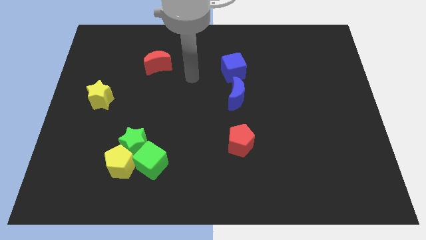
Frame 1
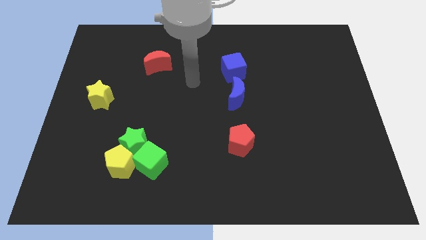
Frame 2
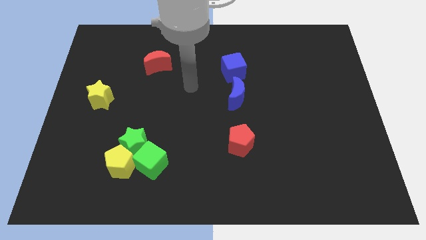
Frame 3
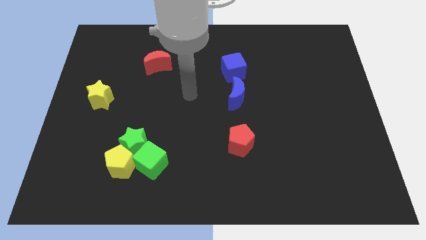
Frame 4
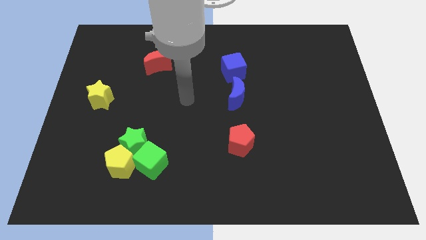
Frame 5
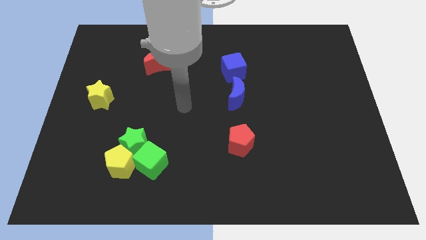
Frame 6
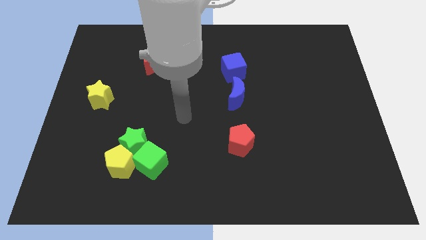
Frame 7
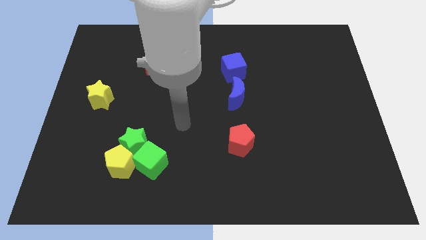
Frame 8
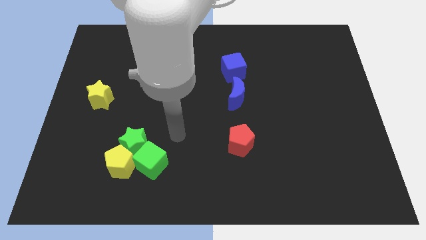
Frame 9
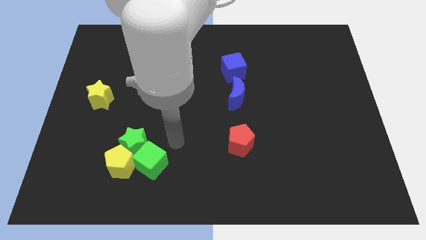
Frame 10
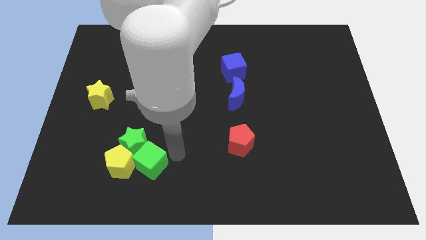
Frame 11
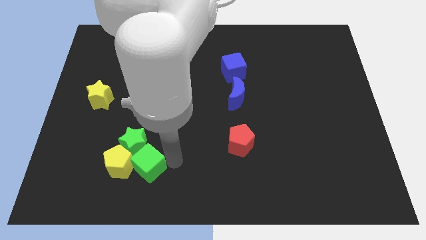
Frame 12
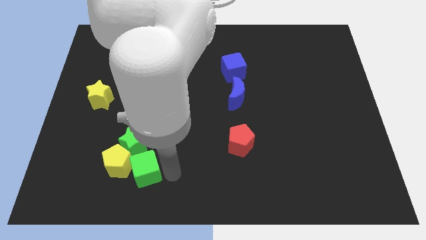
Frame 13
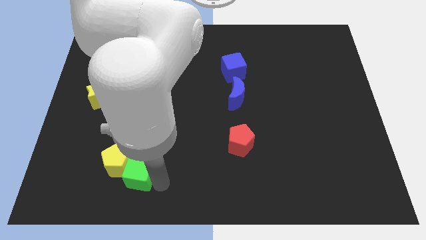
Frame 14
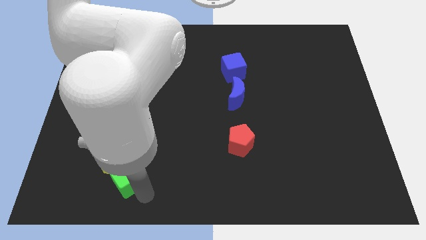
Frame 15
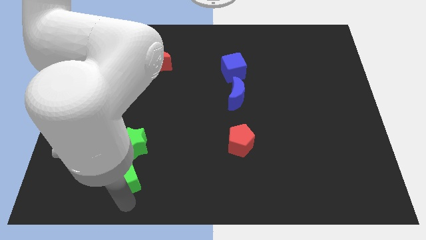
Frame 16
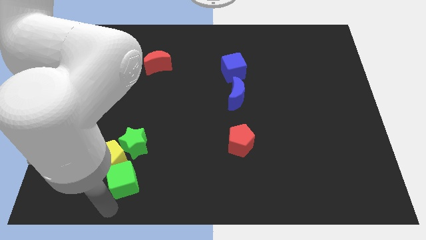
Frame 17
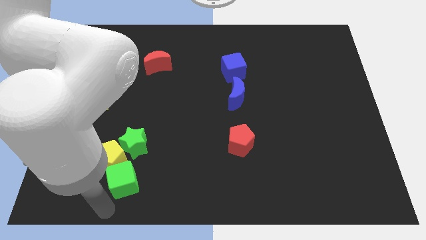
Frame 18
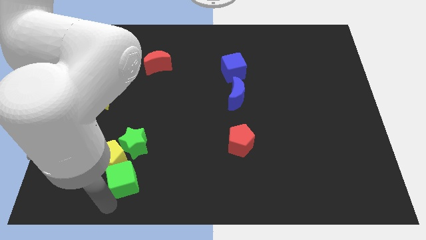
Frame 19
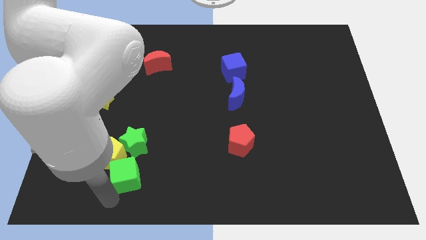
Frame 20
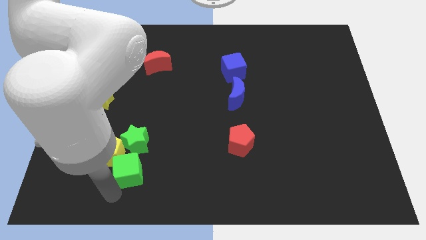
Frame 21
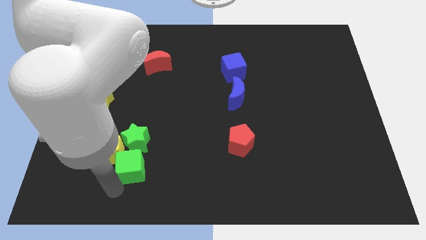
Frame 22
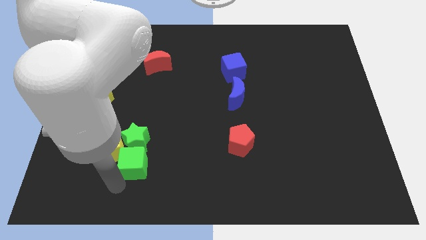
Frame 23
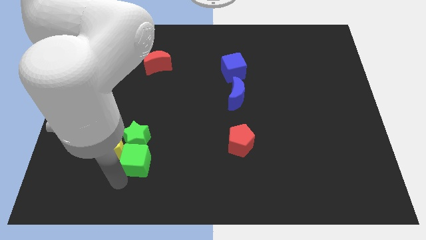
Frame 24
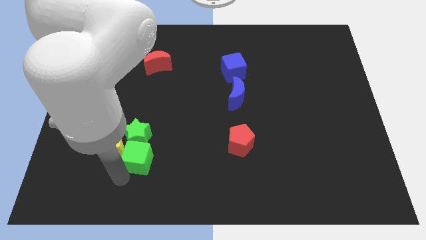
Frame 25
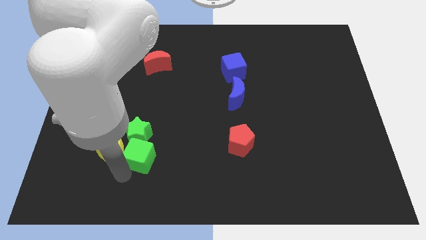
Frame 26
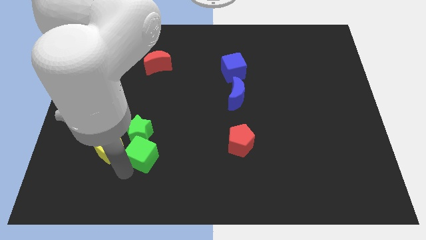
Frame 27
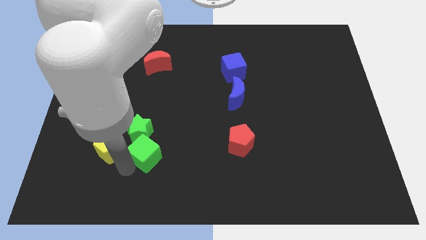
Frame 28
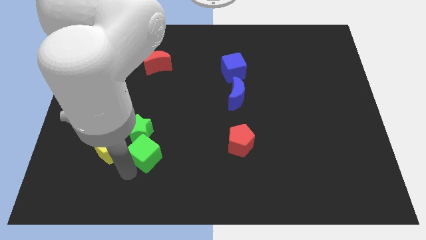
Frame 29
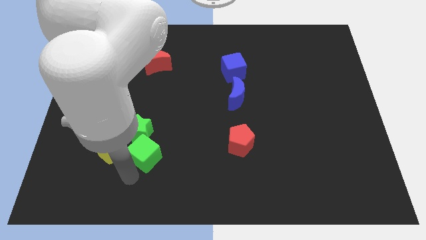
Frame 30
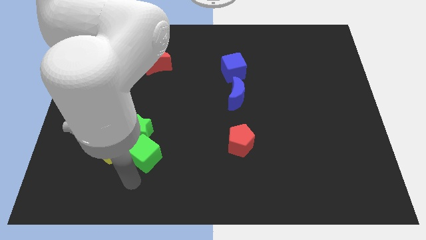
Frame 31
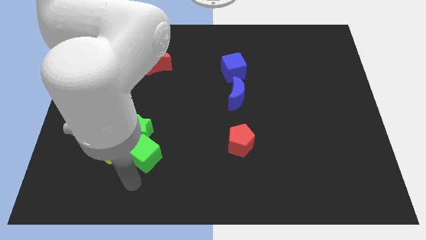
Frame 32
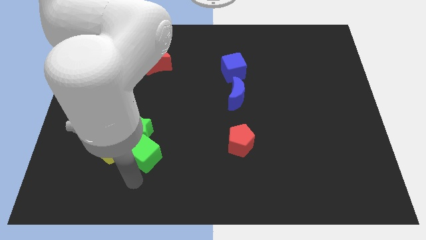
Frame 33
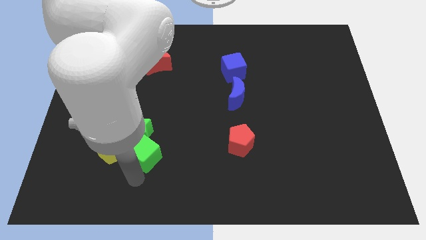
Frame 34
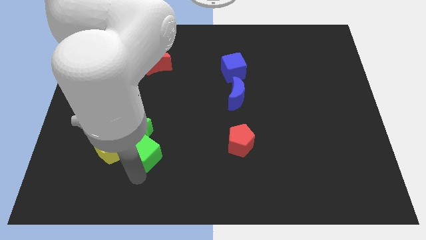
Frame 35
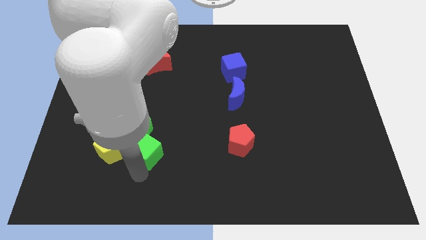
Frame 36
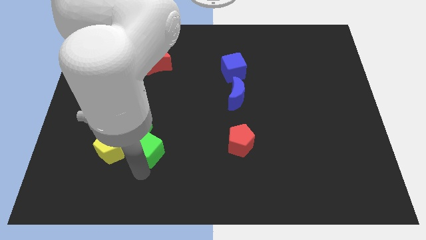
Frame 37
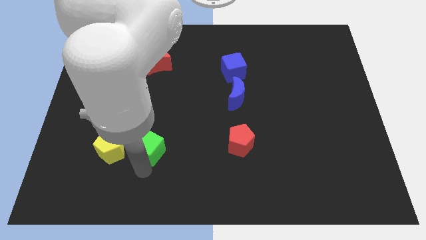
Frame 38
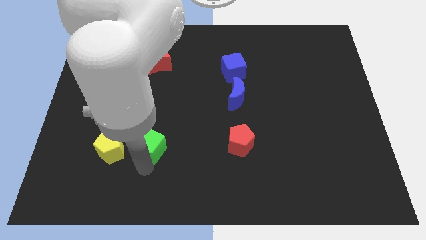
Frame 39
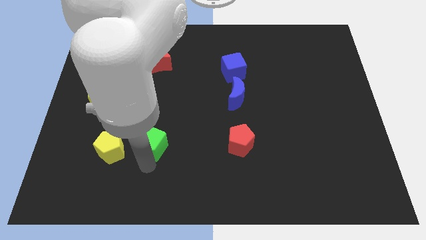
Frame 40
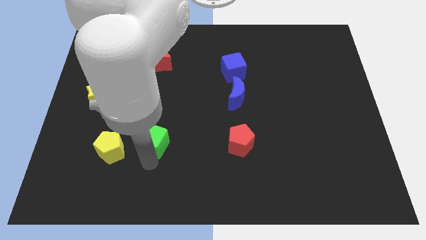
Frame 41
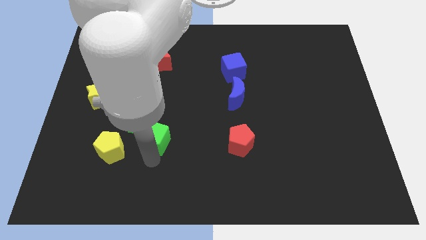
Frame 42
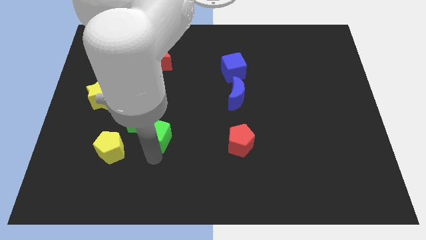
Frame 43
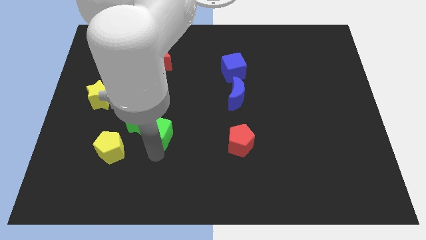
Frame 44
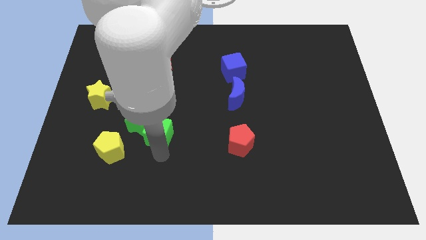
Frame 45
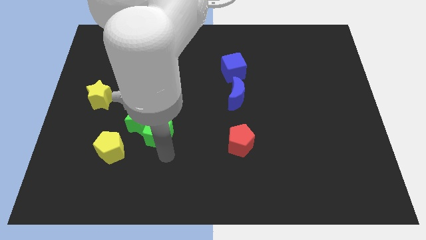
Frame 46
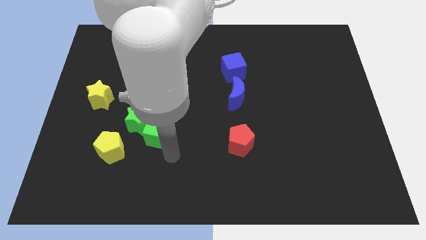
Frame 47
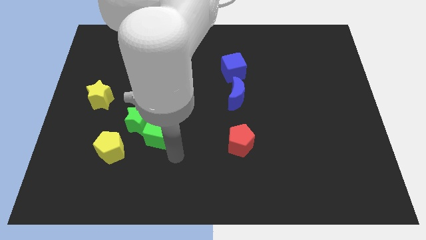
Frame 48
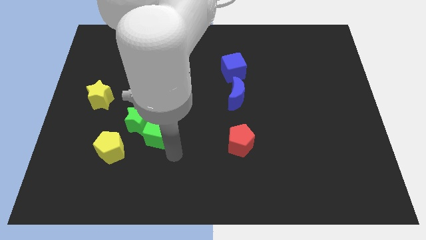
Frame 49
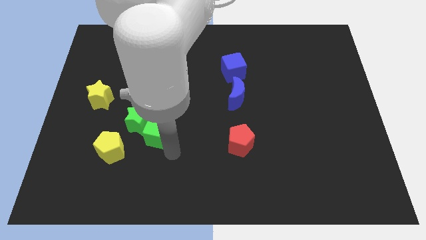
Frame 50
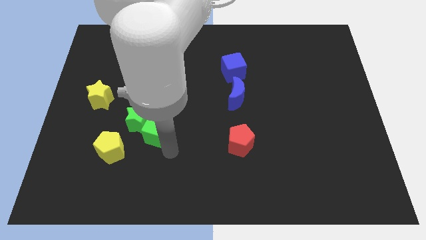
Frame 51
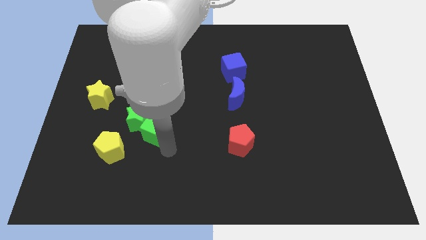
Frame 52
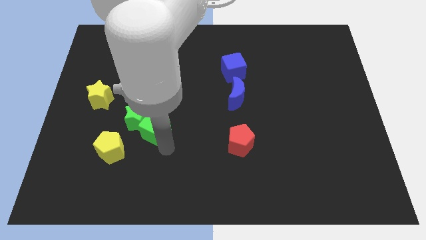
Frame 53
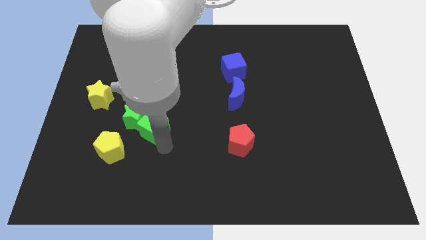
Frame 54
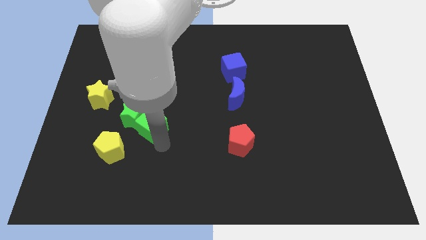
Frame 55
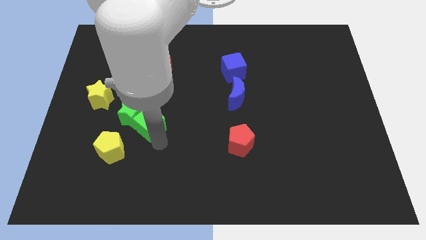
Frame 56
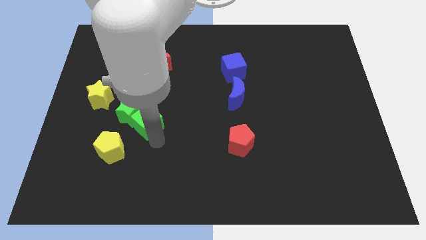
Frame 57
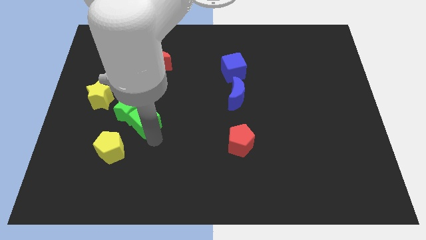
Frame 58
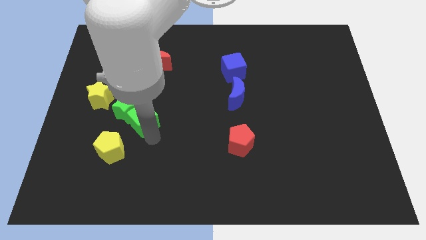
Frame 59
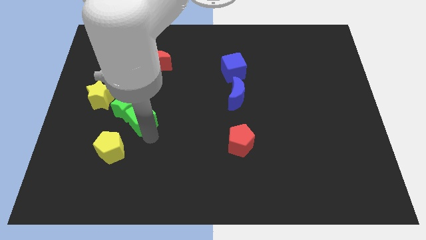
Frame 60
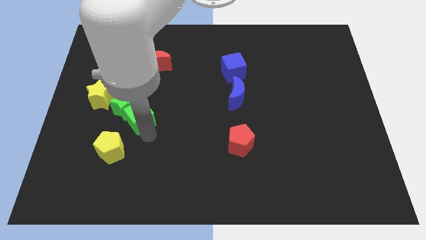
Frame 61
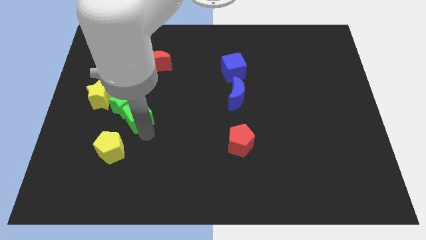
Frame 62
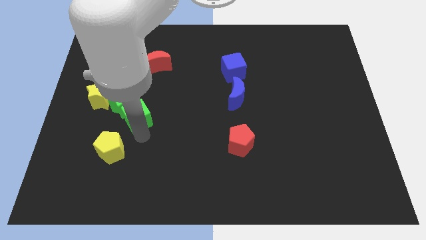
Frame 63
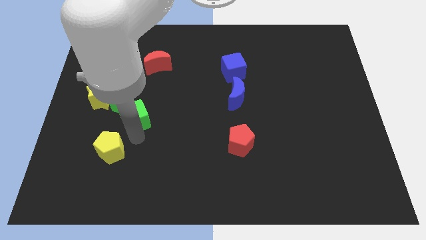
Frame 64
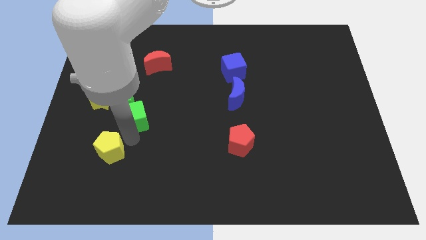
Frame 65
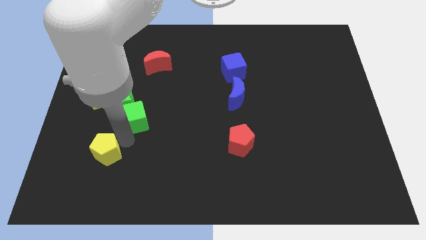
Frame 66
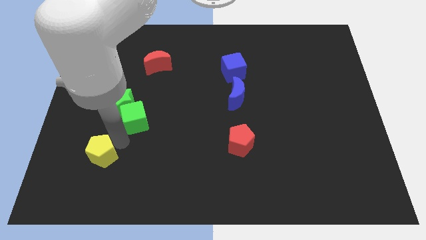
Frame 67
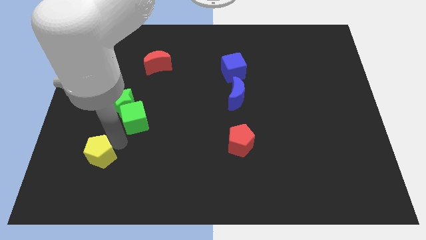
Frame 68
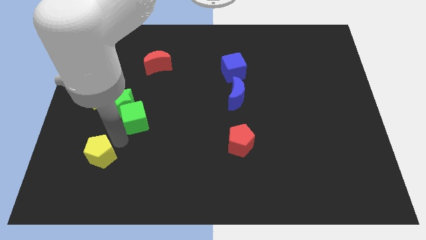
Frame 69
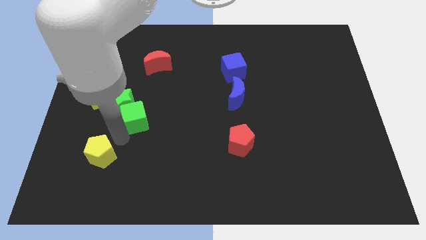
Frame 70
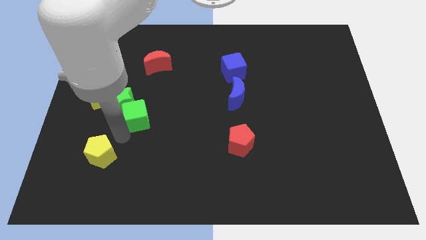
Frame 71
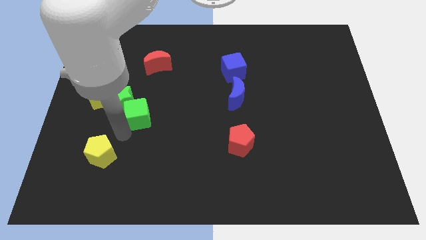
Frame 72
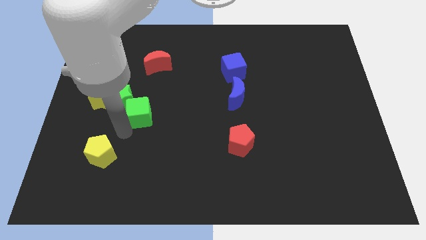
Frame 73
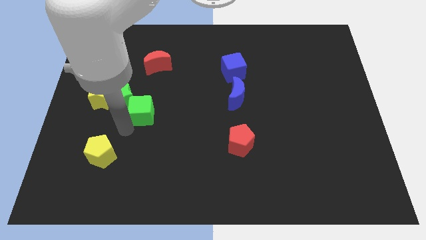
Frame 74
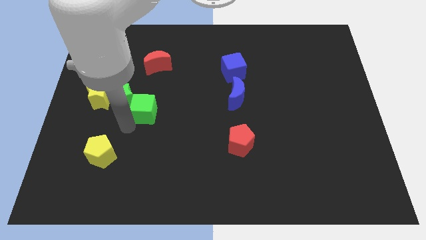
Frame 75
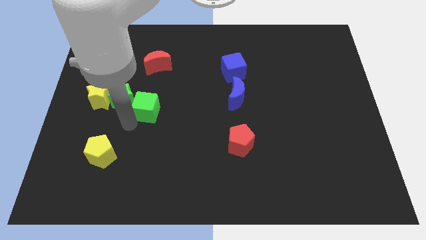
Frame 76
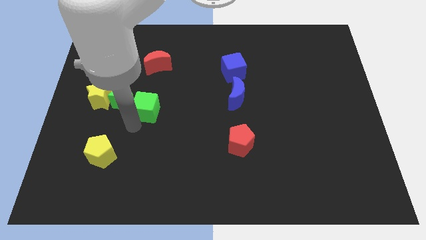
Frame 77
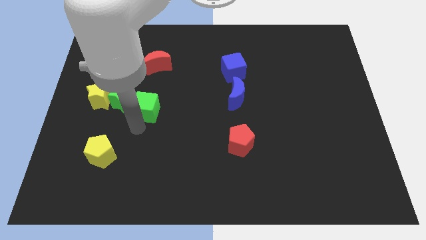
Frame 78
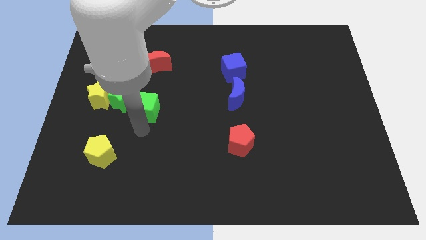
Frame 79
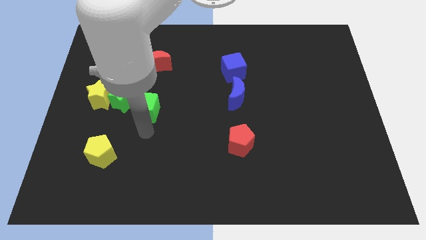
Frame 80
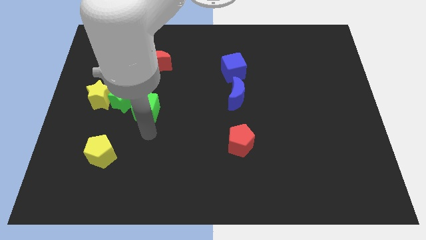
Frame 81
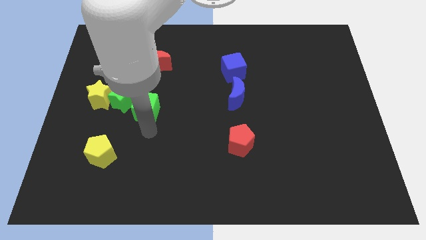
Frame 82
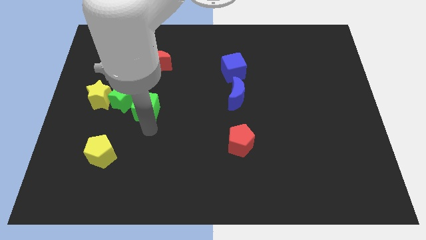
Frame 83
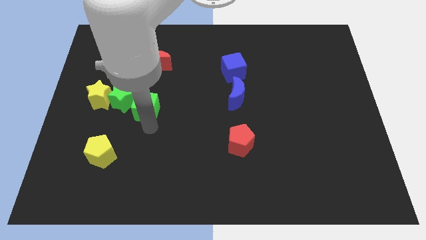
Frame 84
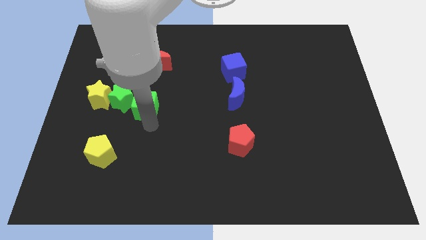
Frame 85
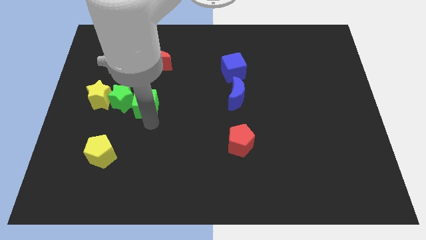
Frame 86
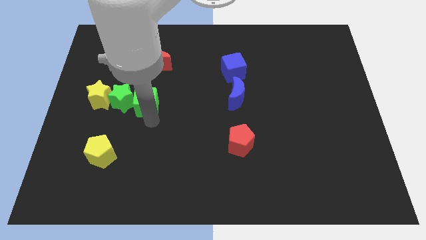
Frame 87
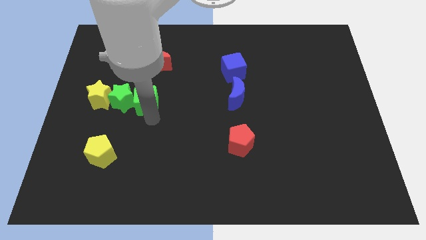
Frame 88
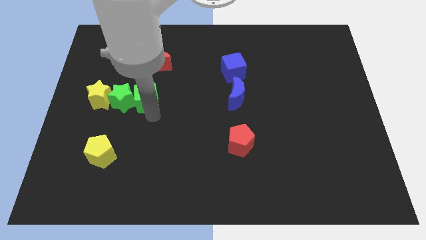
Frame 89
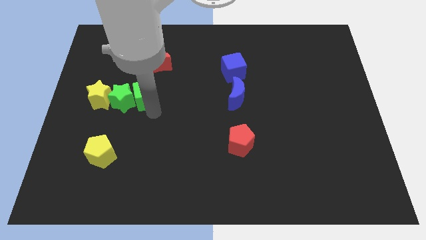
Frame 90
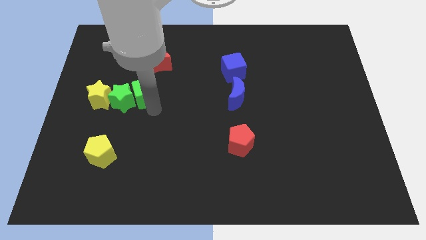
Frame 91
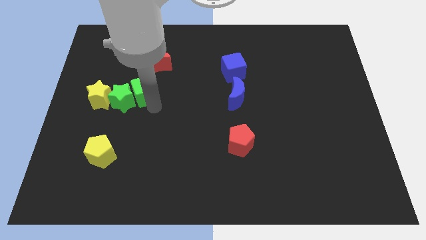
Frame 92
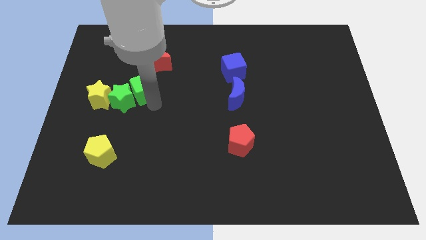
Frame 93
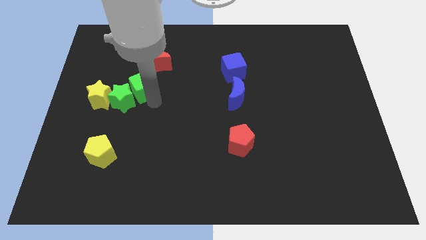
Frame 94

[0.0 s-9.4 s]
move the green cube to the top right side of the yellow star
